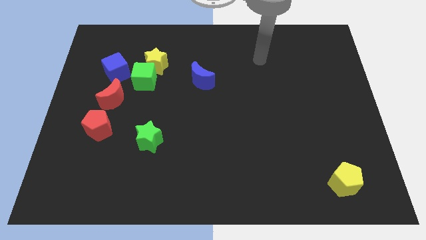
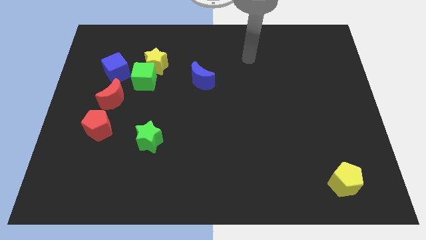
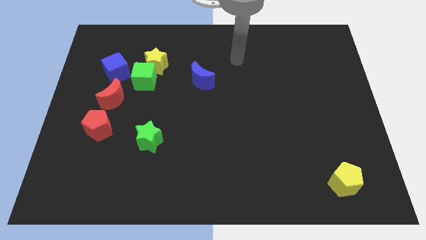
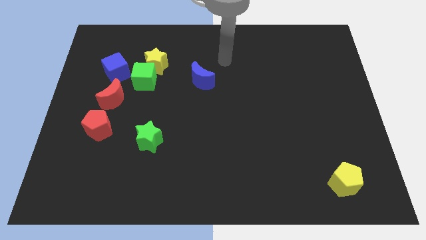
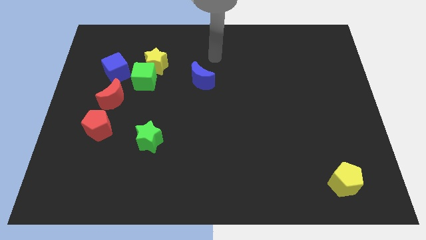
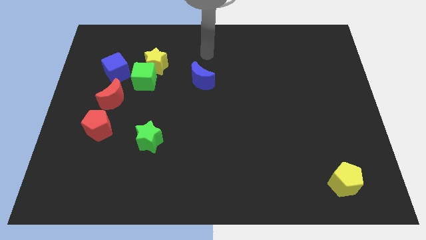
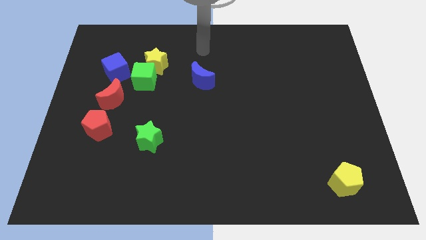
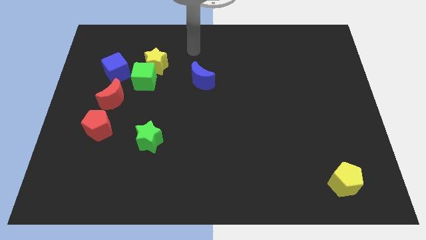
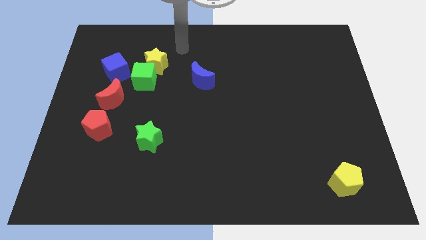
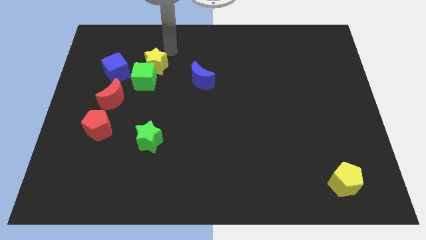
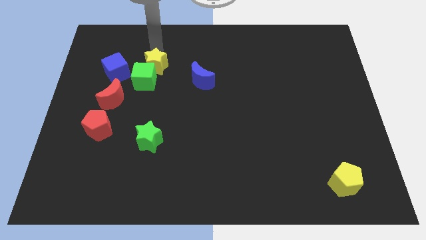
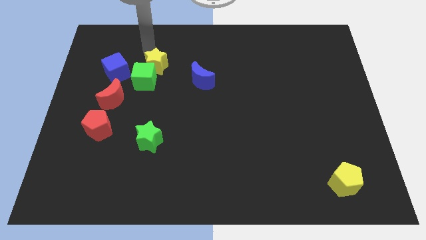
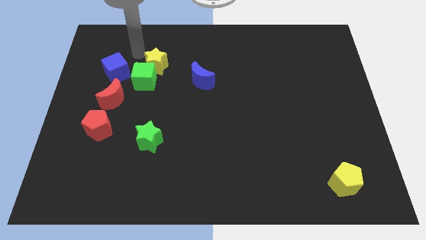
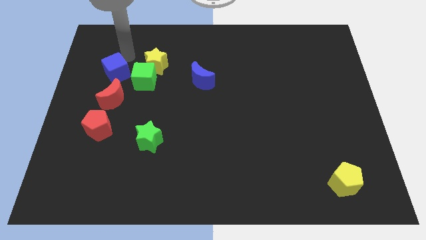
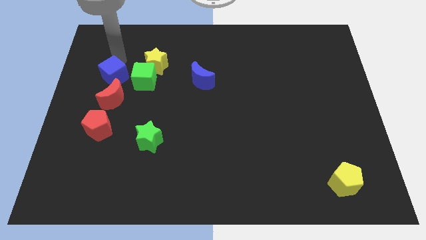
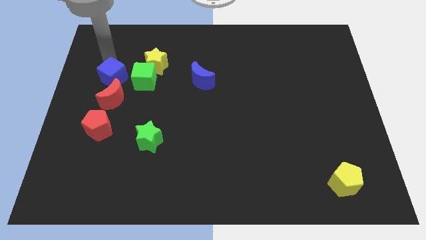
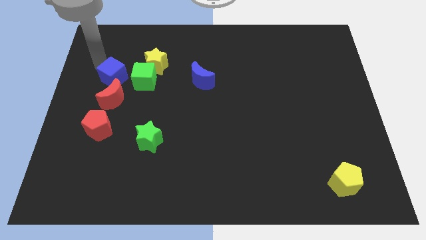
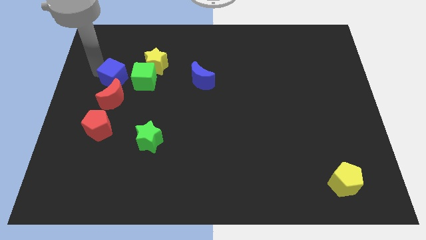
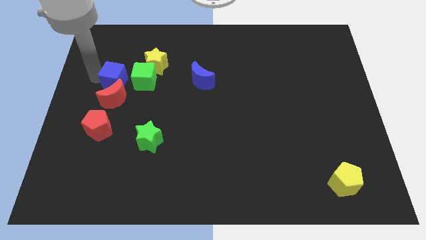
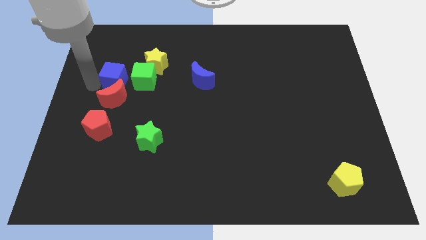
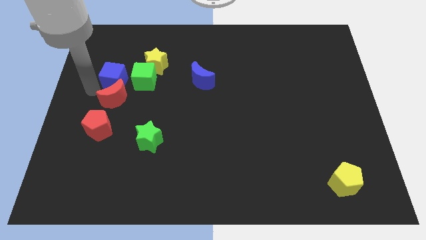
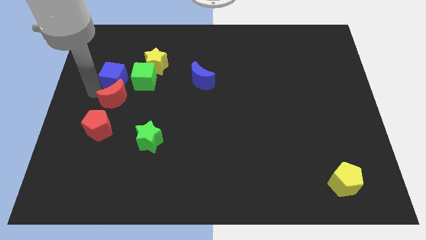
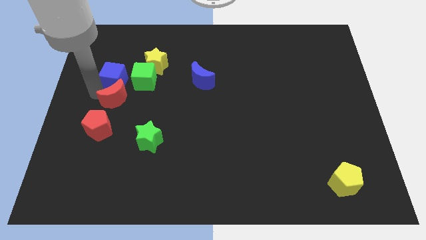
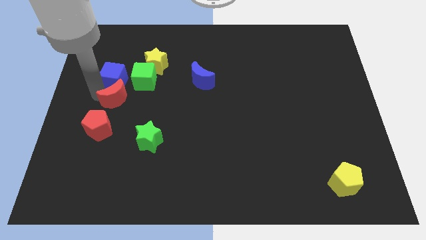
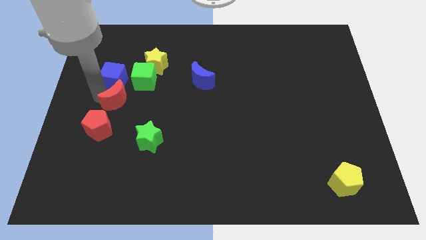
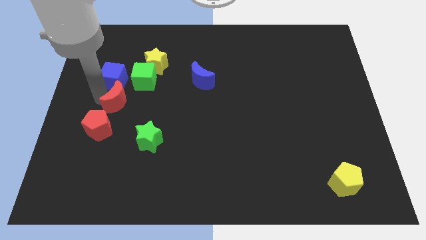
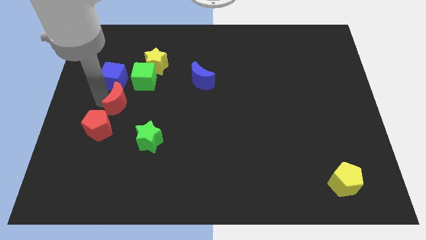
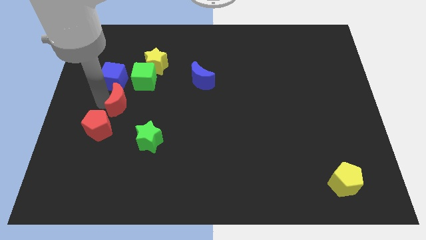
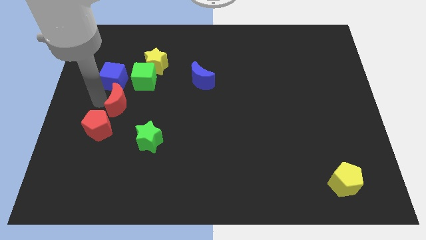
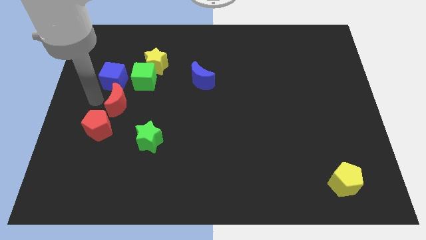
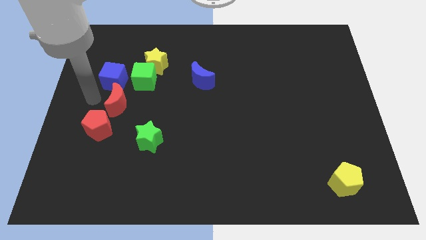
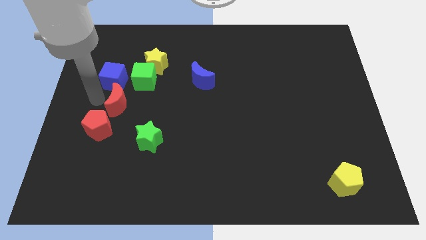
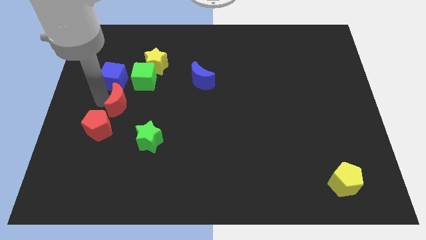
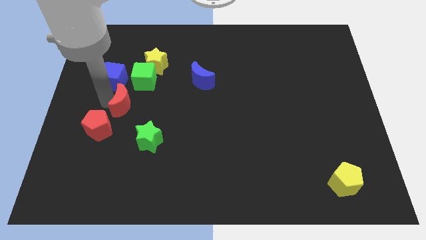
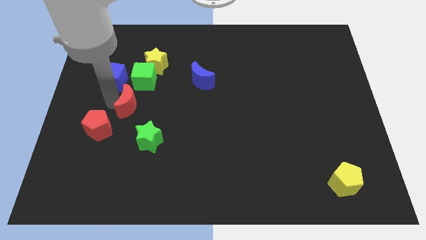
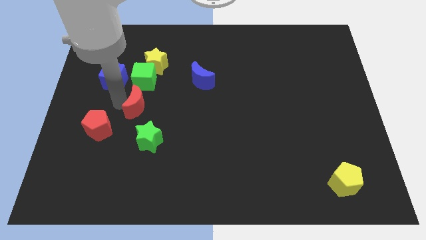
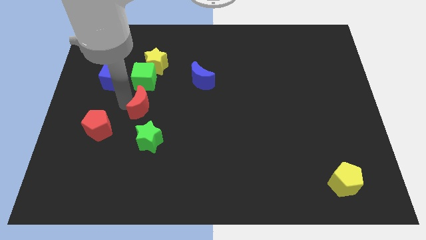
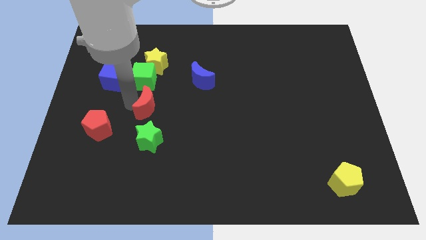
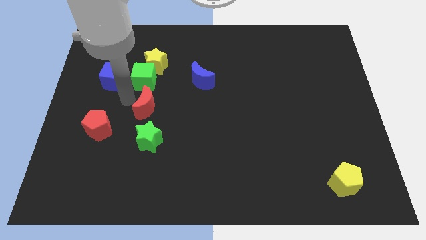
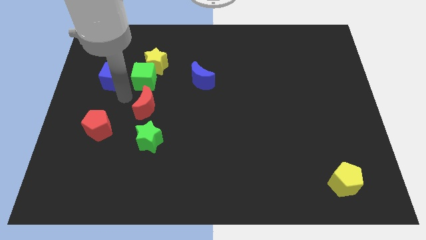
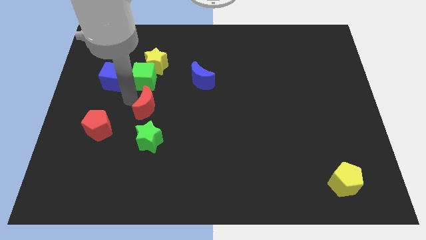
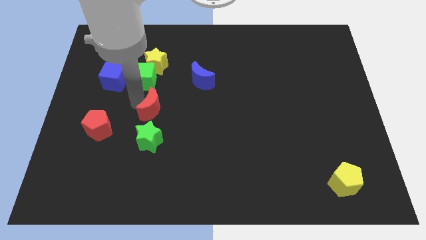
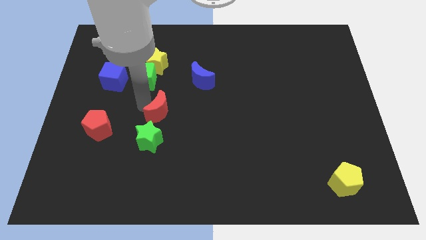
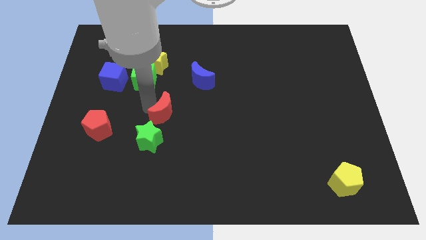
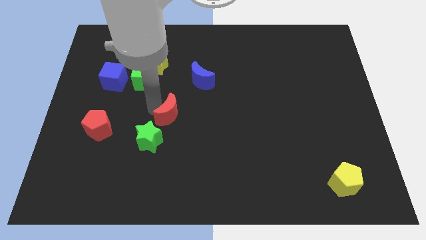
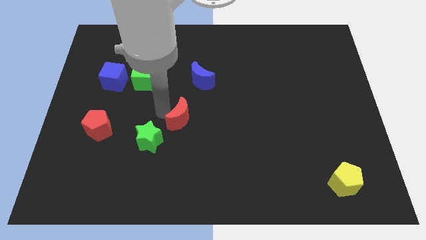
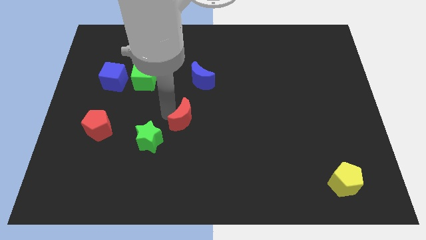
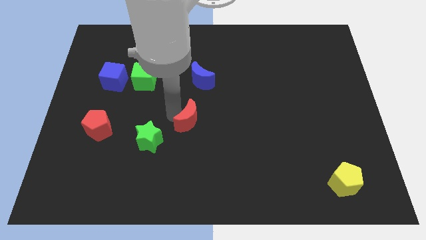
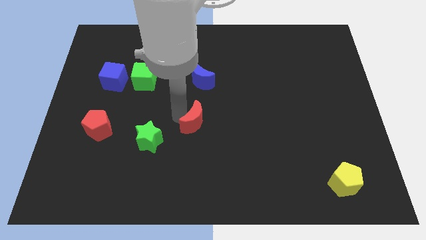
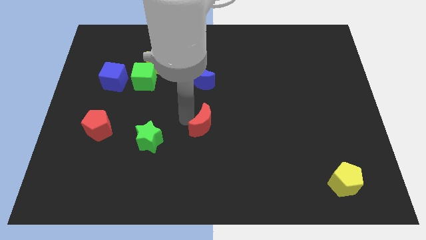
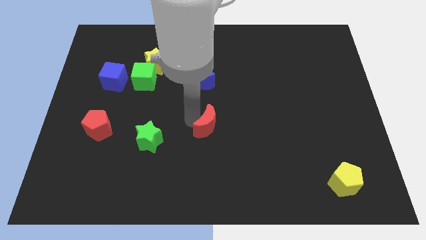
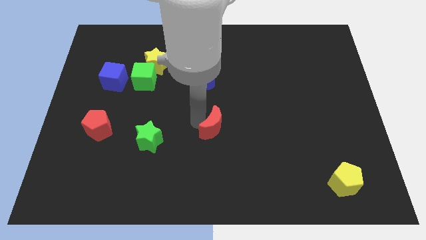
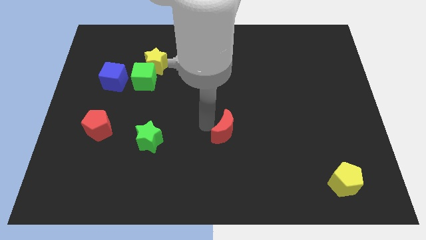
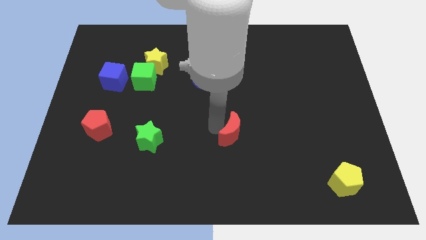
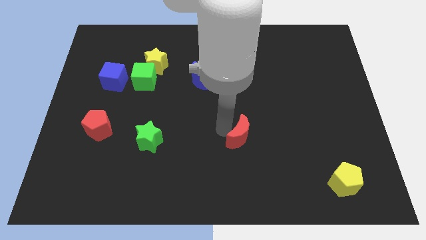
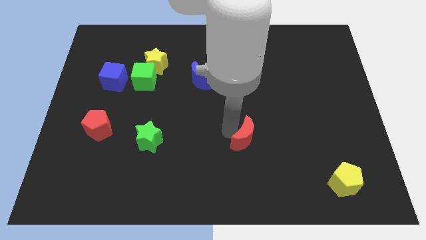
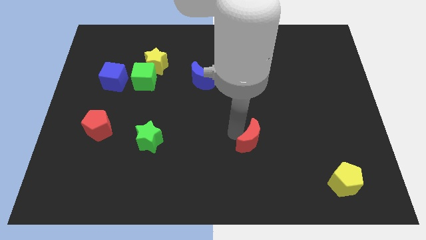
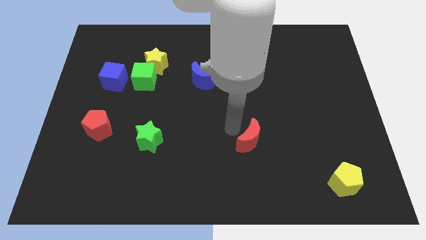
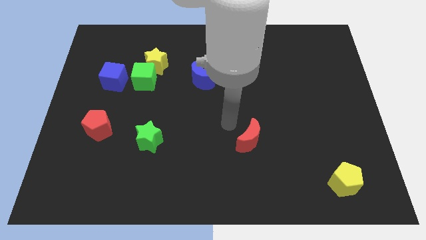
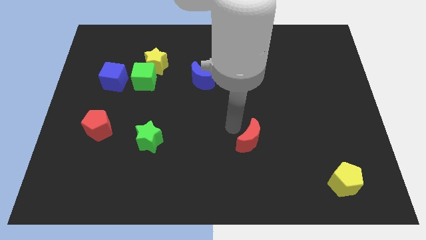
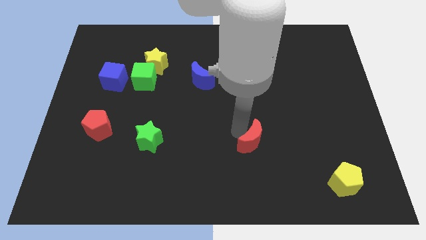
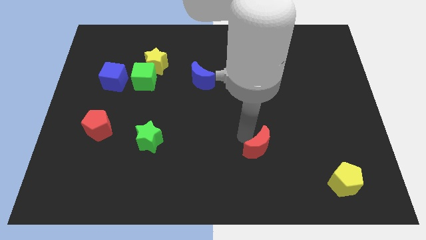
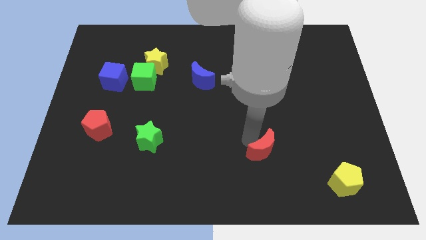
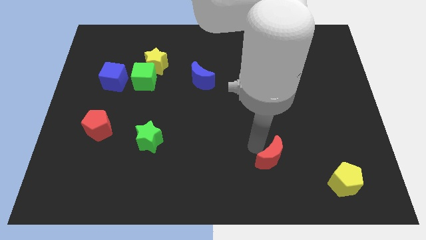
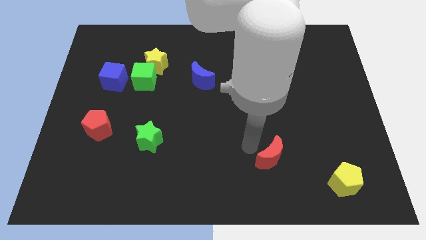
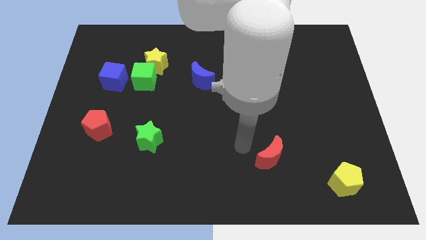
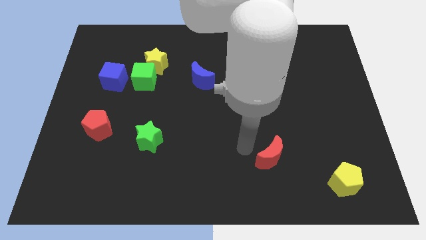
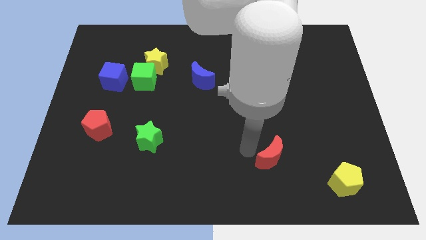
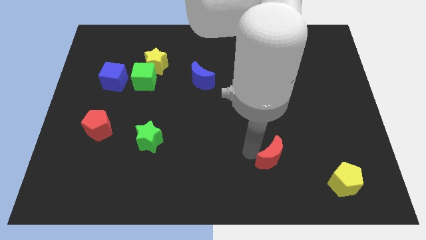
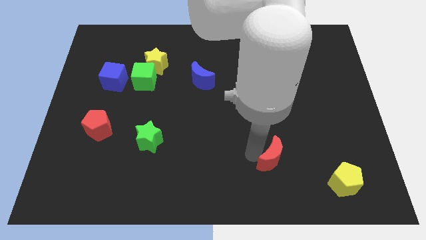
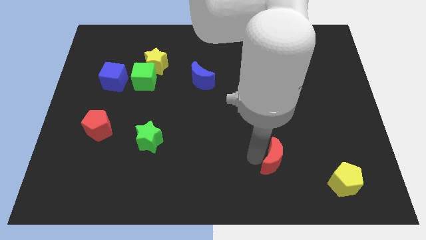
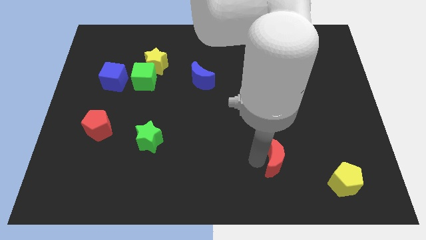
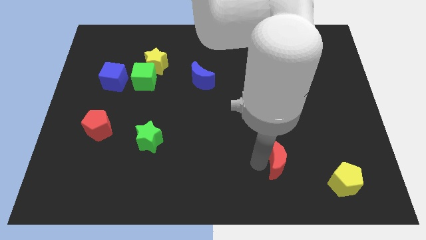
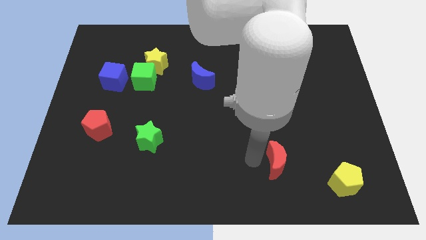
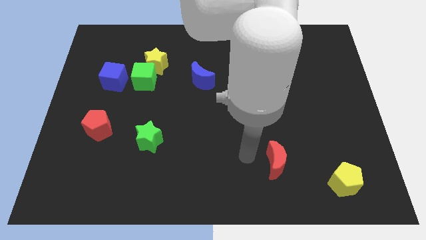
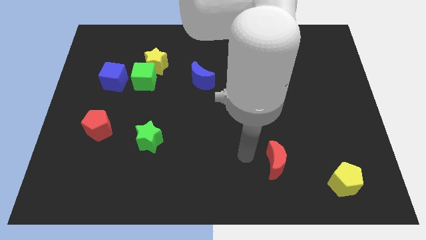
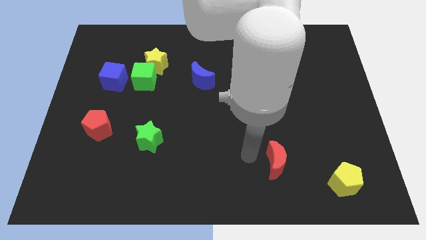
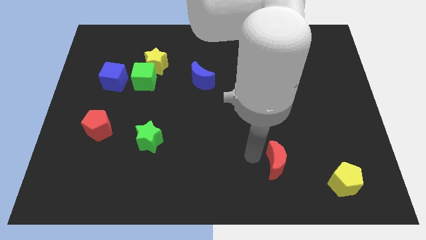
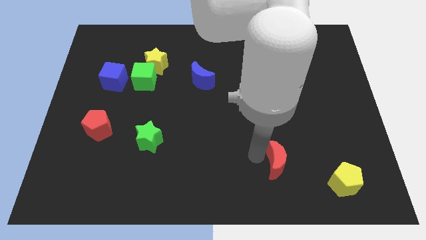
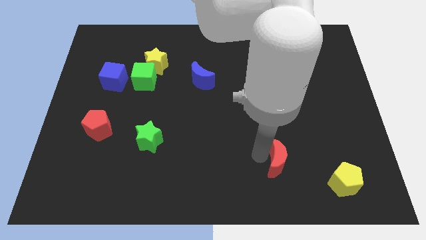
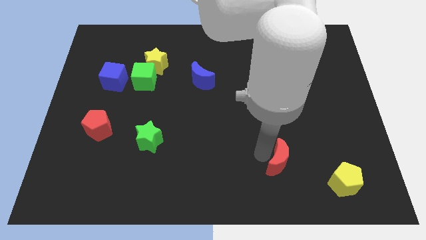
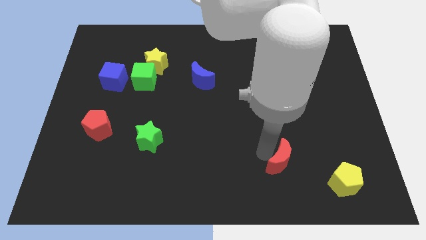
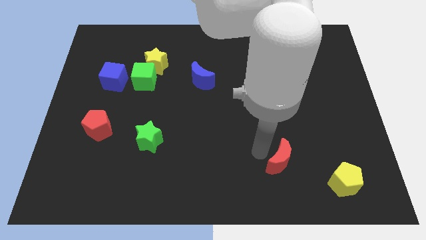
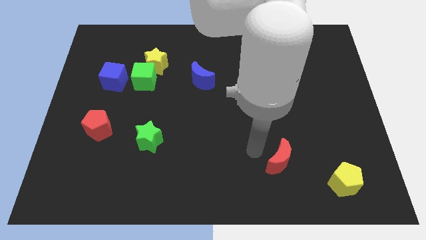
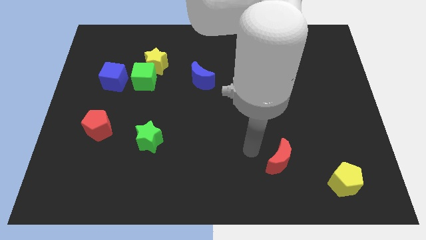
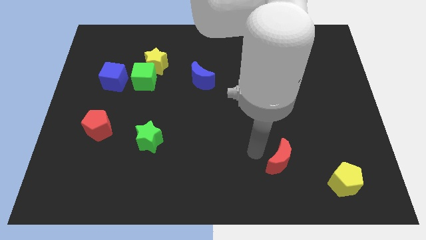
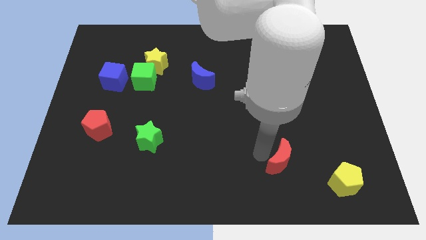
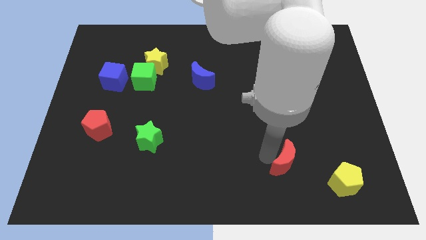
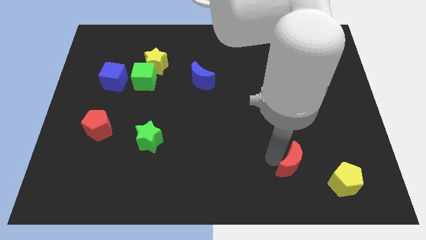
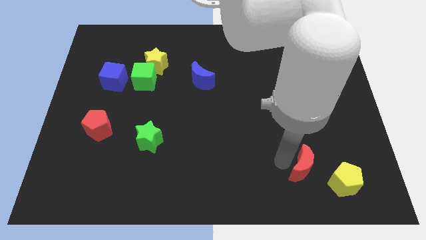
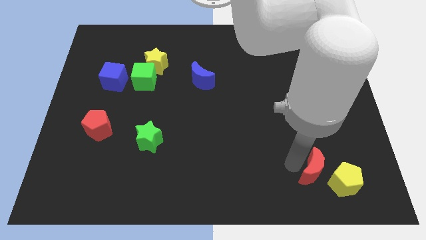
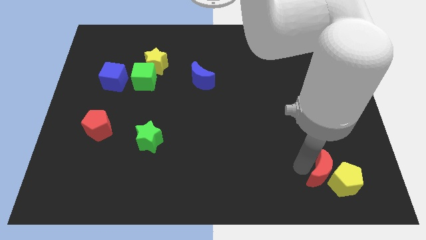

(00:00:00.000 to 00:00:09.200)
push the red moon next to the yellow pentagon
